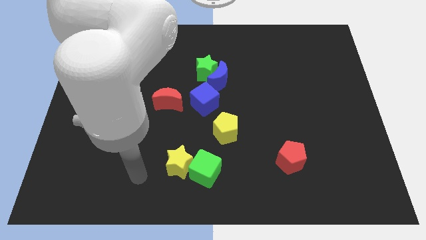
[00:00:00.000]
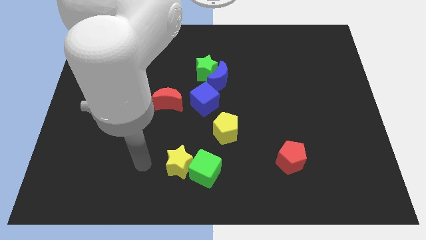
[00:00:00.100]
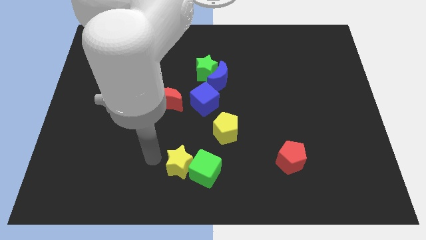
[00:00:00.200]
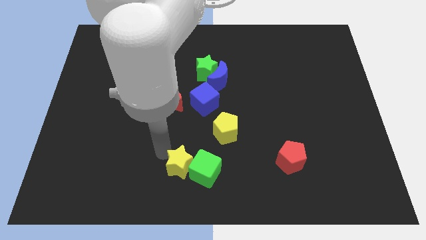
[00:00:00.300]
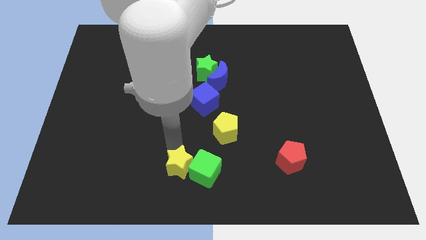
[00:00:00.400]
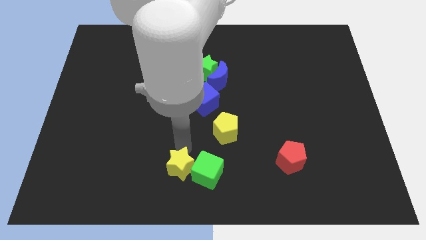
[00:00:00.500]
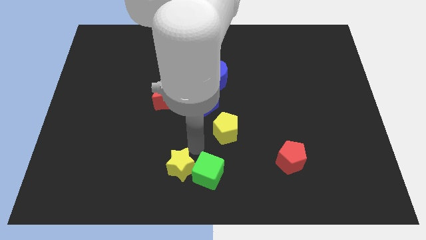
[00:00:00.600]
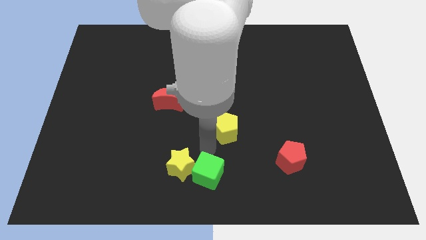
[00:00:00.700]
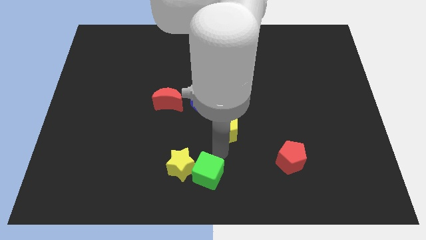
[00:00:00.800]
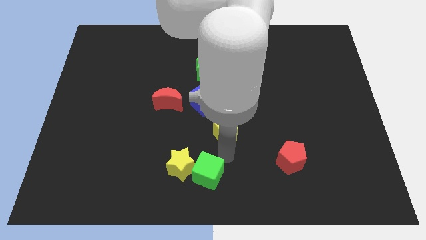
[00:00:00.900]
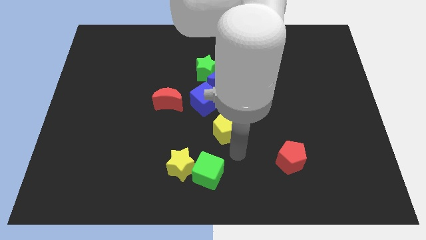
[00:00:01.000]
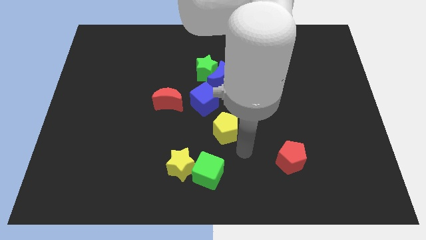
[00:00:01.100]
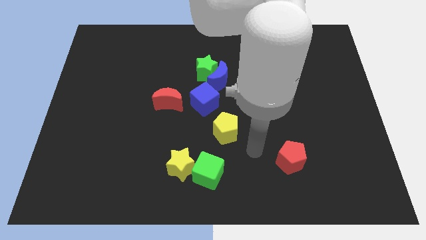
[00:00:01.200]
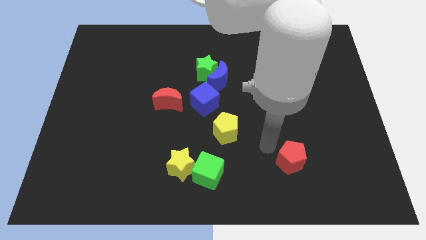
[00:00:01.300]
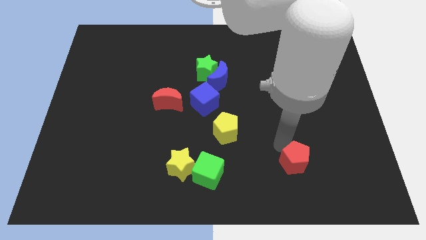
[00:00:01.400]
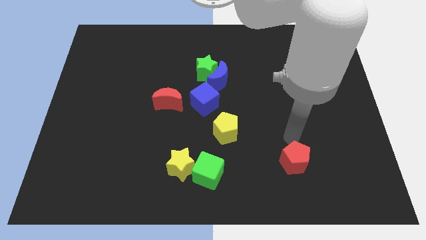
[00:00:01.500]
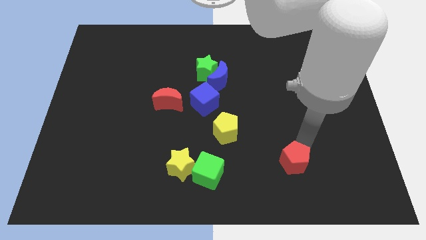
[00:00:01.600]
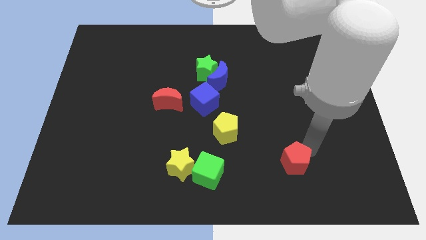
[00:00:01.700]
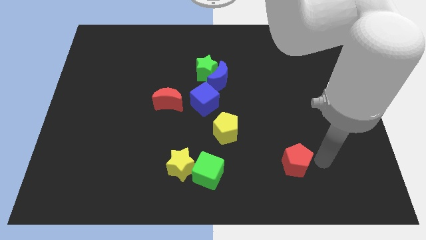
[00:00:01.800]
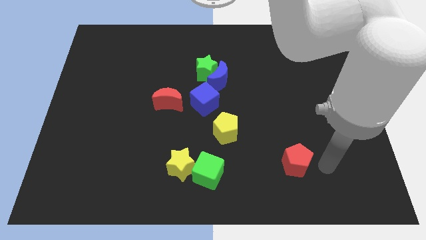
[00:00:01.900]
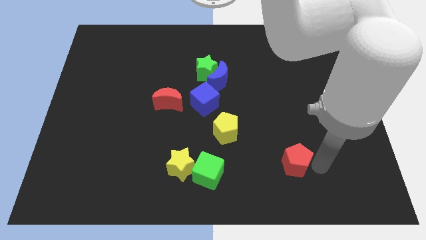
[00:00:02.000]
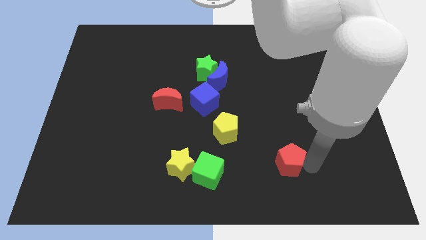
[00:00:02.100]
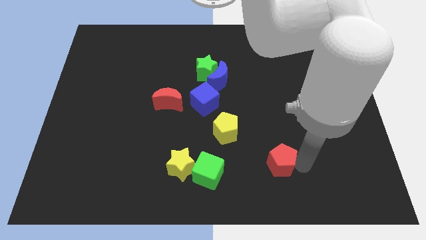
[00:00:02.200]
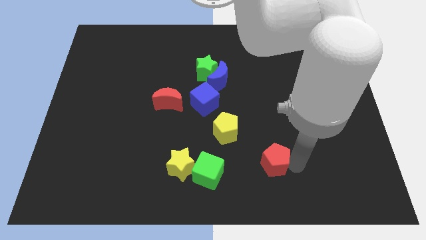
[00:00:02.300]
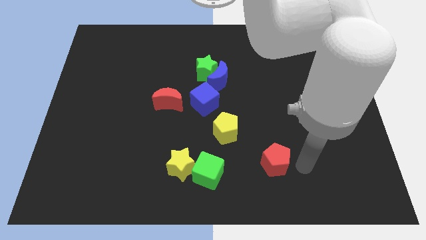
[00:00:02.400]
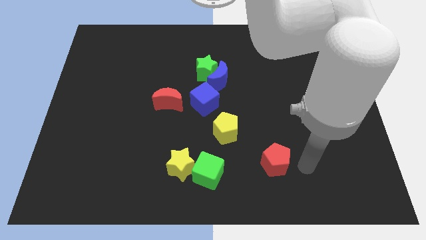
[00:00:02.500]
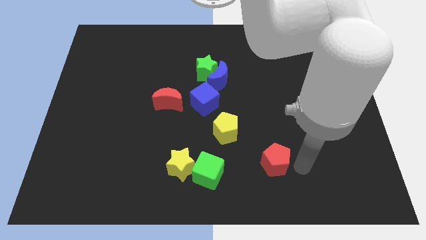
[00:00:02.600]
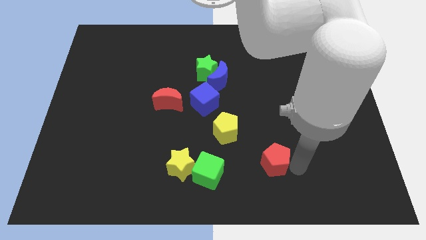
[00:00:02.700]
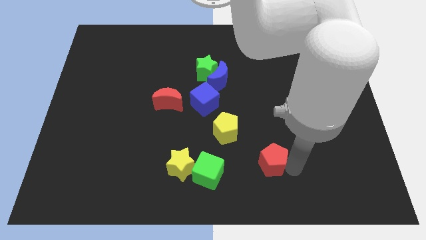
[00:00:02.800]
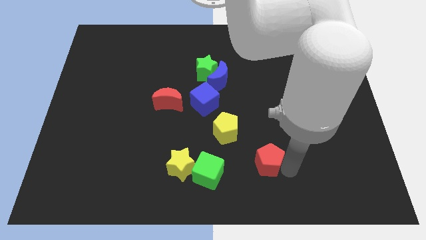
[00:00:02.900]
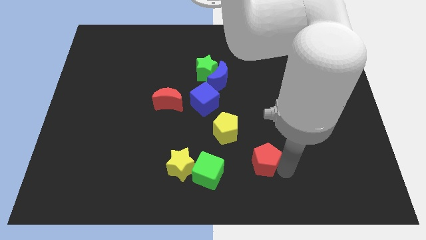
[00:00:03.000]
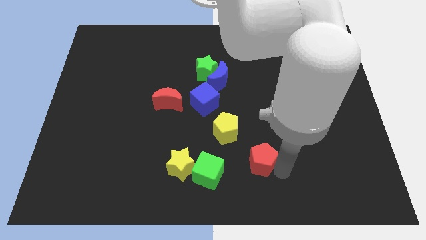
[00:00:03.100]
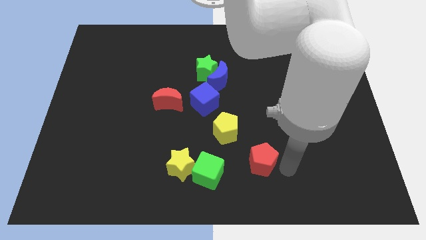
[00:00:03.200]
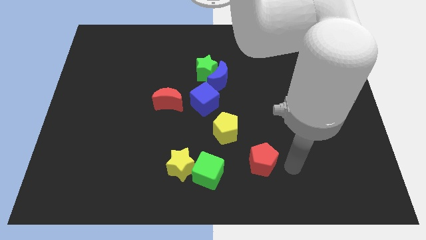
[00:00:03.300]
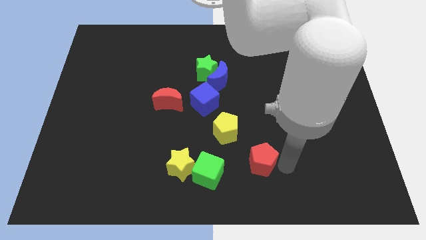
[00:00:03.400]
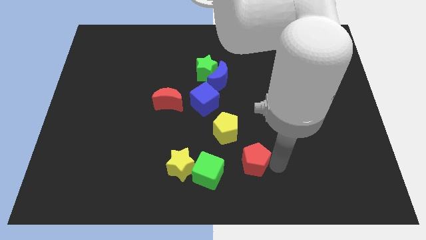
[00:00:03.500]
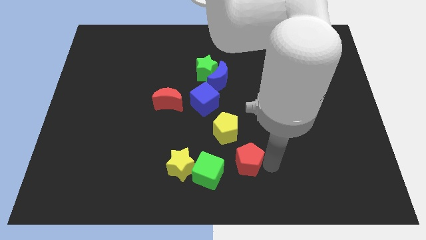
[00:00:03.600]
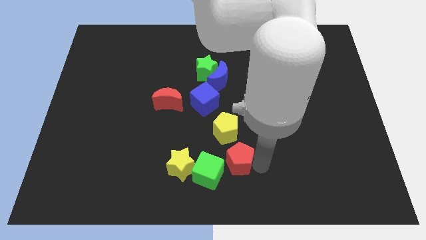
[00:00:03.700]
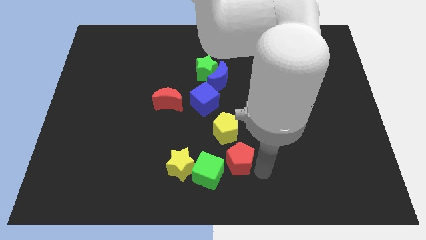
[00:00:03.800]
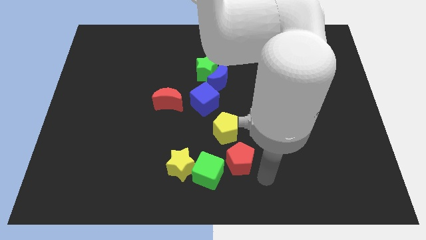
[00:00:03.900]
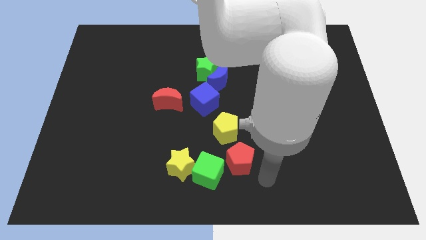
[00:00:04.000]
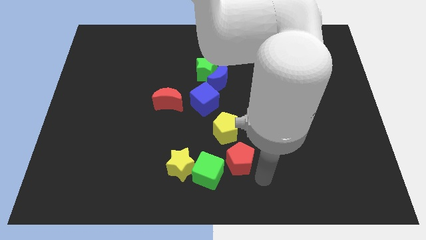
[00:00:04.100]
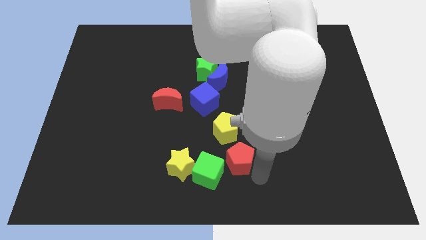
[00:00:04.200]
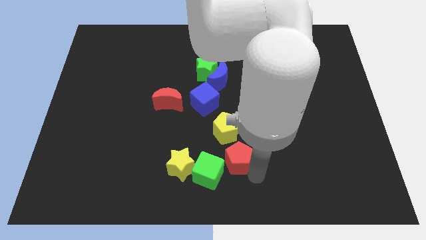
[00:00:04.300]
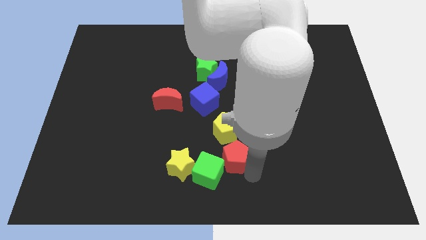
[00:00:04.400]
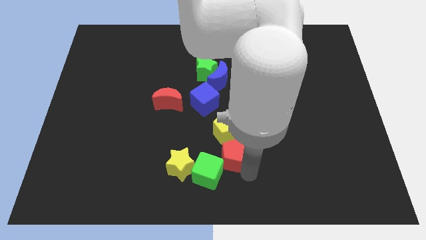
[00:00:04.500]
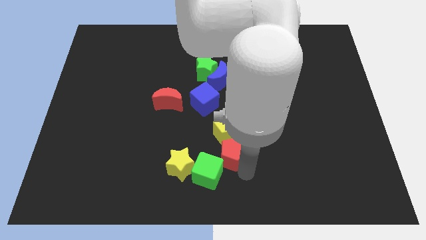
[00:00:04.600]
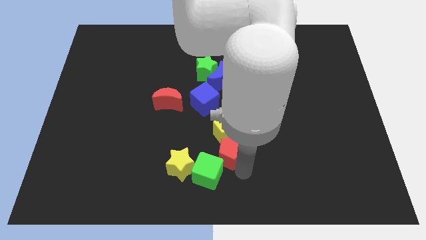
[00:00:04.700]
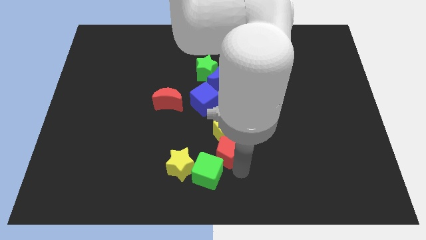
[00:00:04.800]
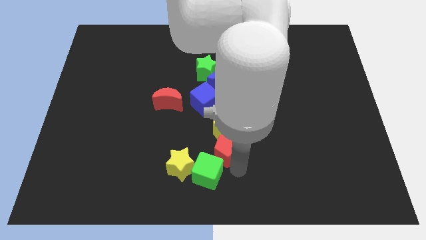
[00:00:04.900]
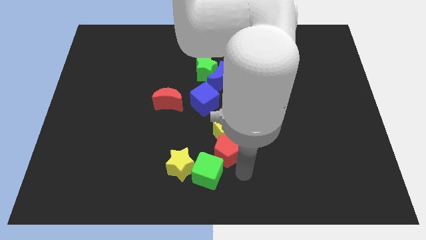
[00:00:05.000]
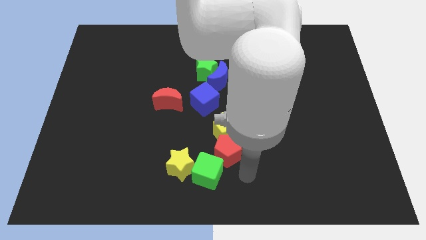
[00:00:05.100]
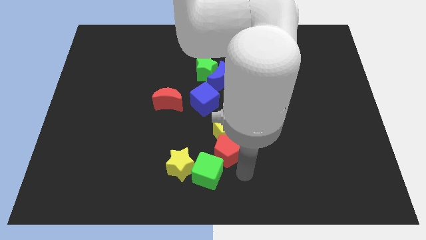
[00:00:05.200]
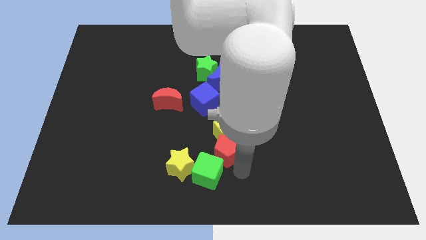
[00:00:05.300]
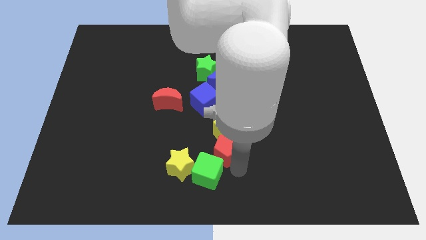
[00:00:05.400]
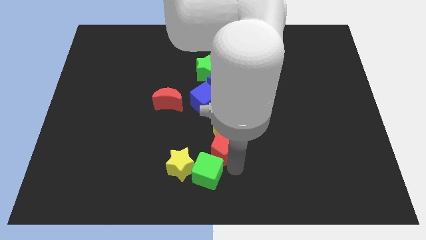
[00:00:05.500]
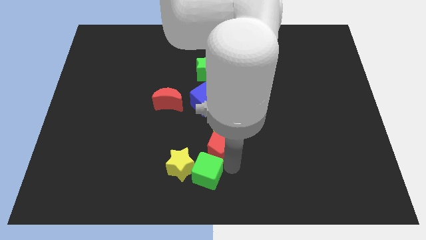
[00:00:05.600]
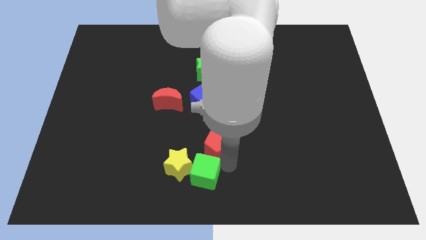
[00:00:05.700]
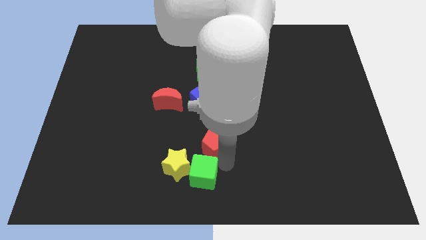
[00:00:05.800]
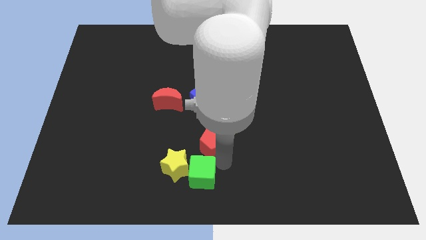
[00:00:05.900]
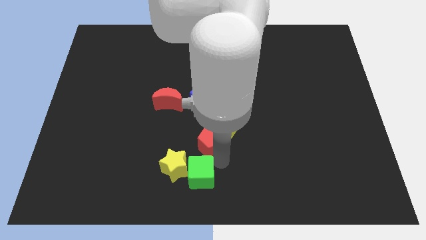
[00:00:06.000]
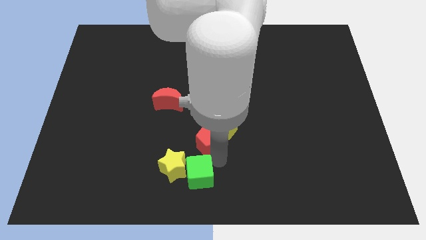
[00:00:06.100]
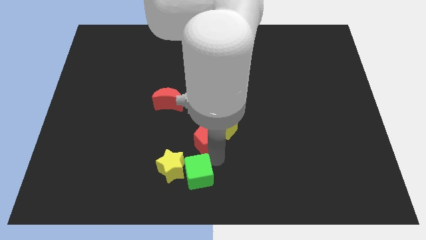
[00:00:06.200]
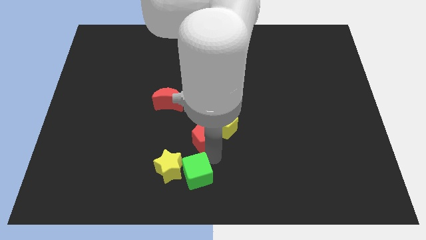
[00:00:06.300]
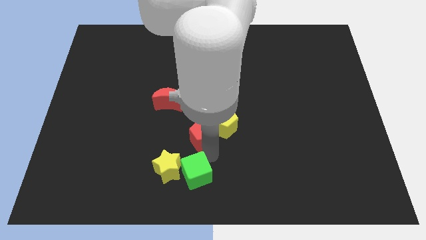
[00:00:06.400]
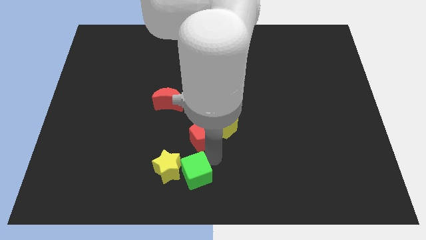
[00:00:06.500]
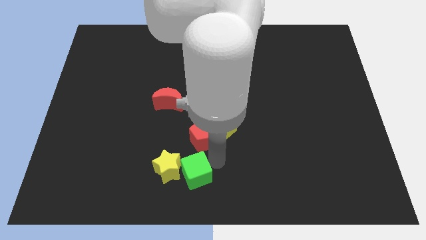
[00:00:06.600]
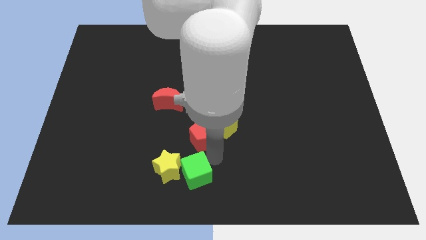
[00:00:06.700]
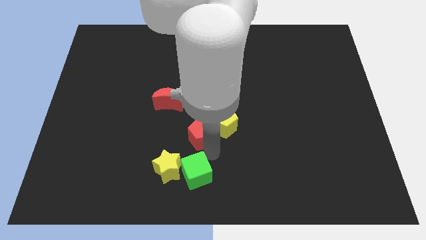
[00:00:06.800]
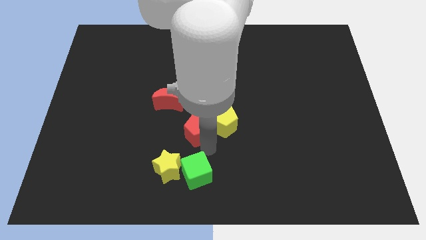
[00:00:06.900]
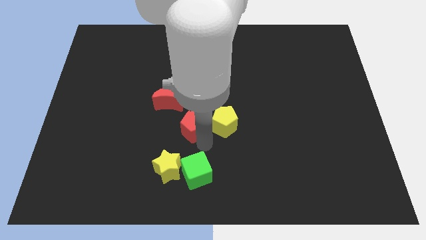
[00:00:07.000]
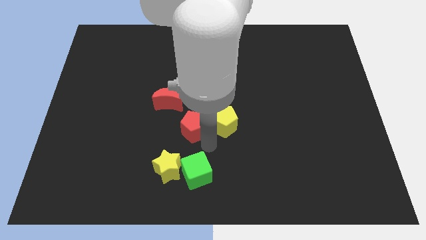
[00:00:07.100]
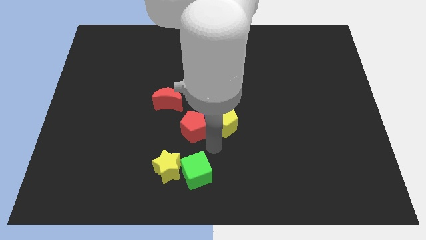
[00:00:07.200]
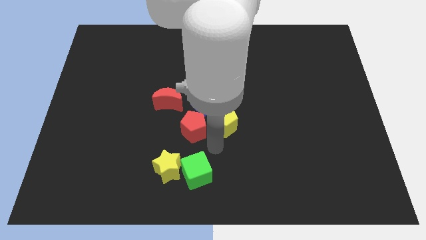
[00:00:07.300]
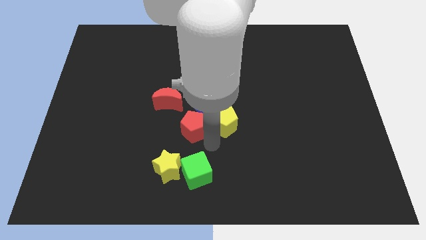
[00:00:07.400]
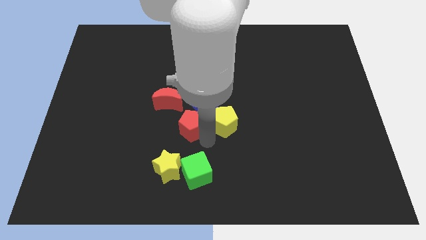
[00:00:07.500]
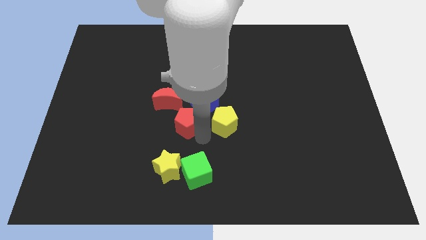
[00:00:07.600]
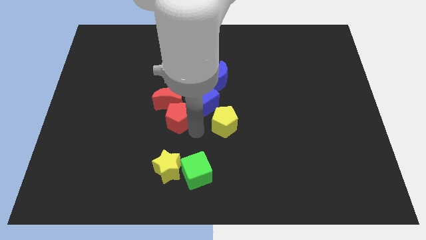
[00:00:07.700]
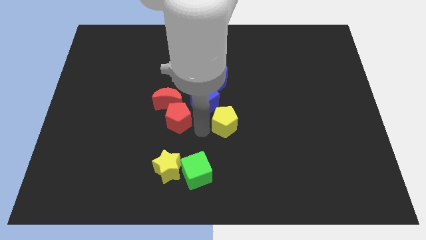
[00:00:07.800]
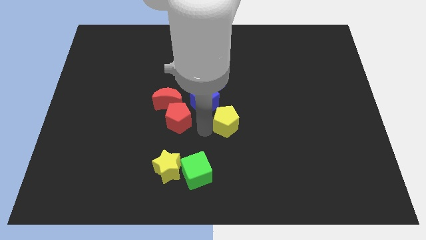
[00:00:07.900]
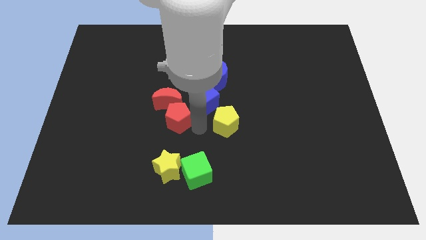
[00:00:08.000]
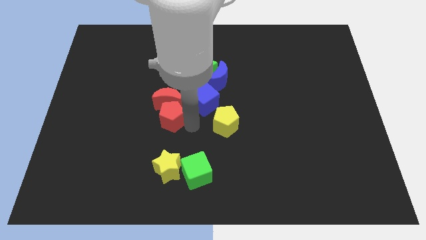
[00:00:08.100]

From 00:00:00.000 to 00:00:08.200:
push the red pentagon left of the blue cube
